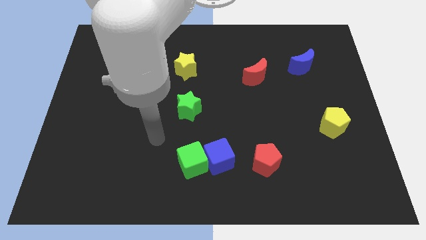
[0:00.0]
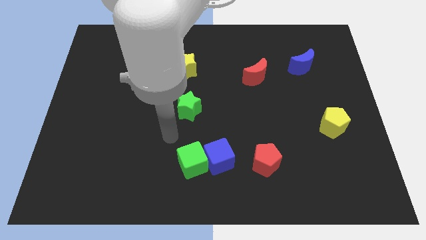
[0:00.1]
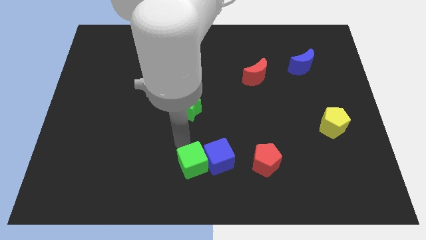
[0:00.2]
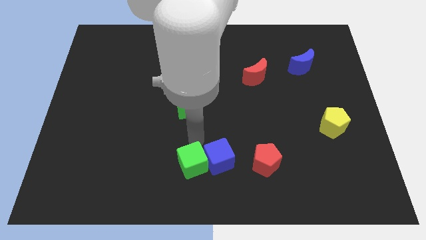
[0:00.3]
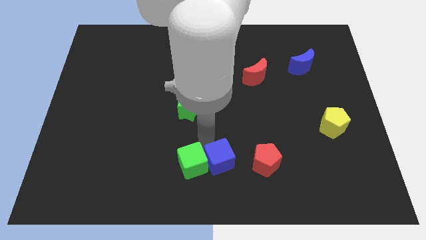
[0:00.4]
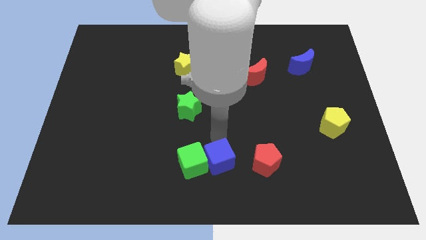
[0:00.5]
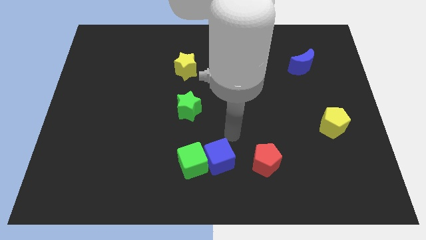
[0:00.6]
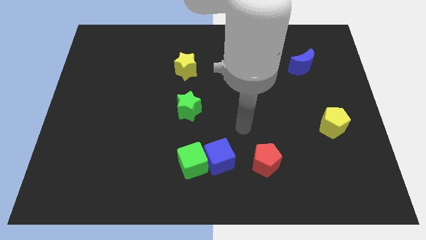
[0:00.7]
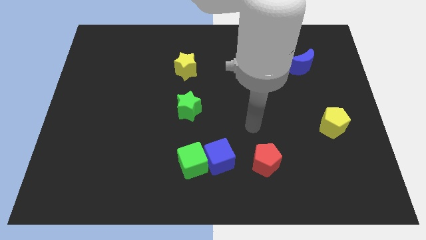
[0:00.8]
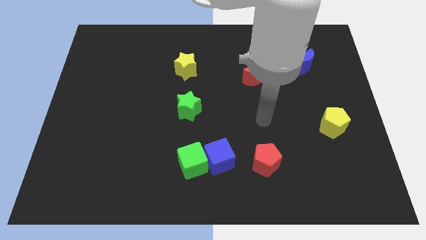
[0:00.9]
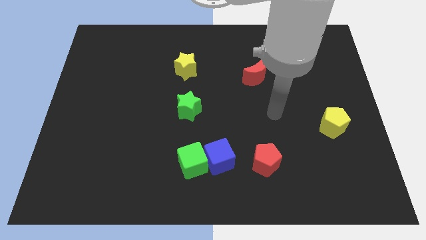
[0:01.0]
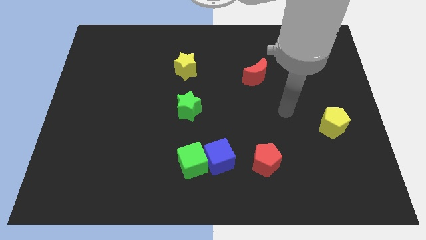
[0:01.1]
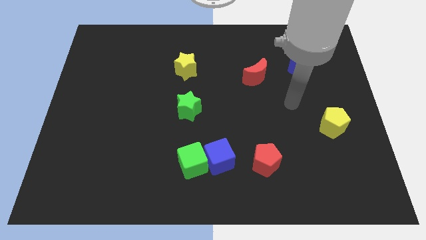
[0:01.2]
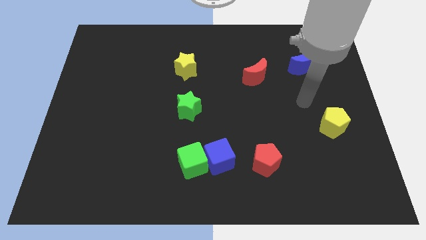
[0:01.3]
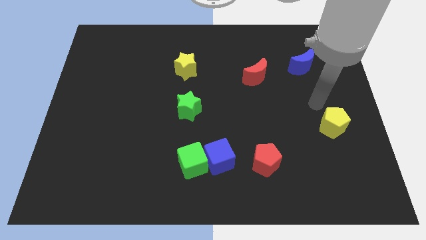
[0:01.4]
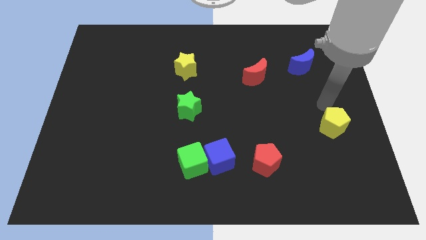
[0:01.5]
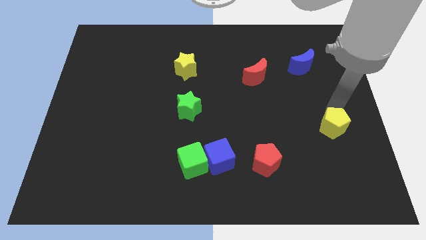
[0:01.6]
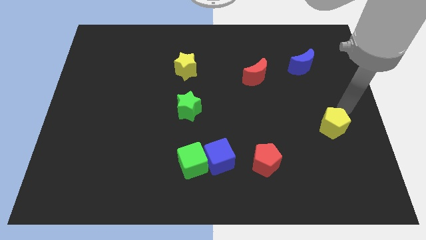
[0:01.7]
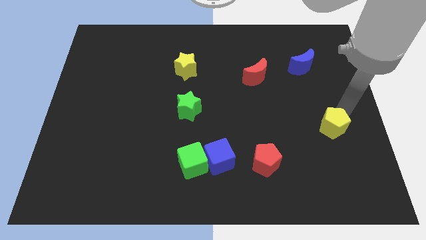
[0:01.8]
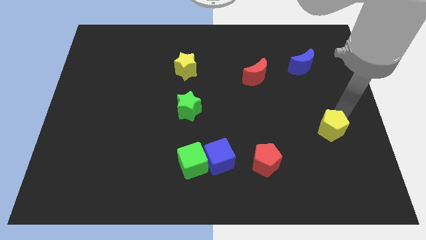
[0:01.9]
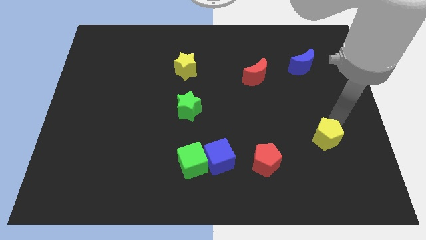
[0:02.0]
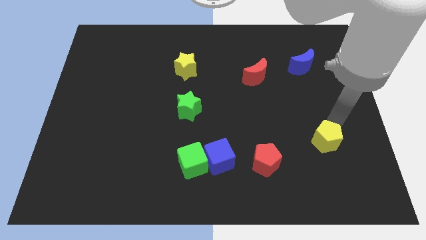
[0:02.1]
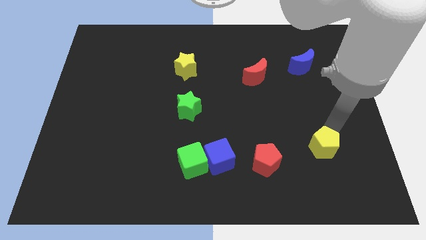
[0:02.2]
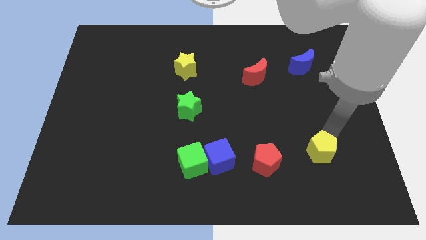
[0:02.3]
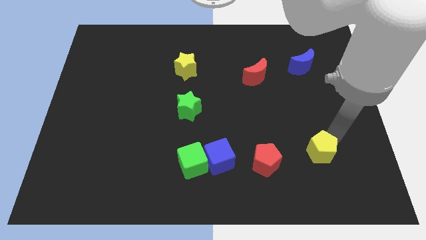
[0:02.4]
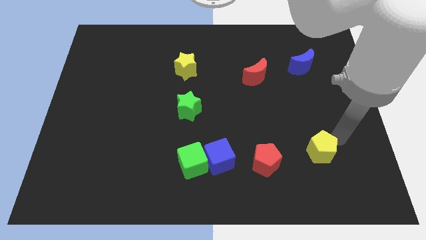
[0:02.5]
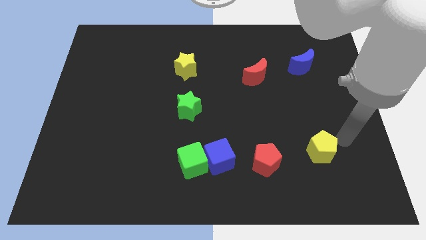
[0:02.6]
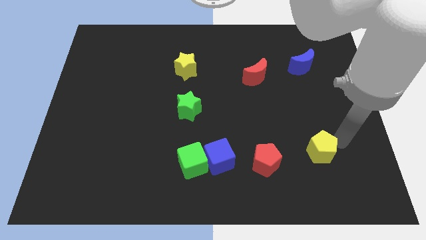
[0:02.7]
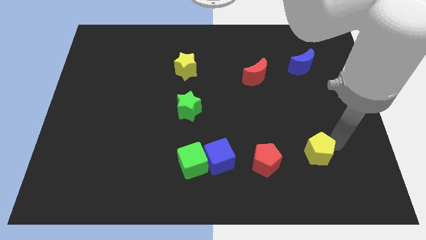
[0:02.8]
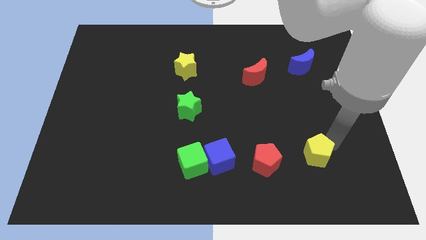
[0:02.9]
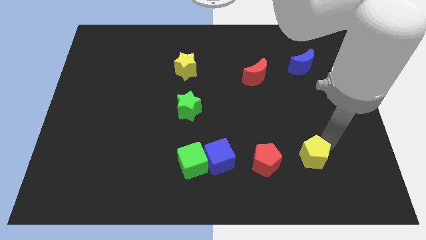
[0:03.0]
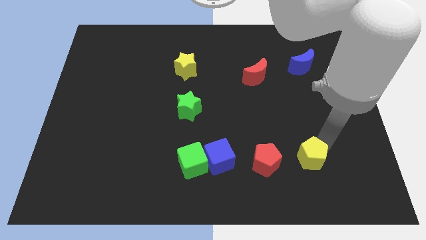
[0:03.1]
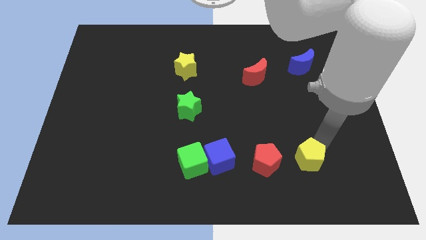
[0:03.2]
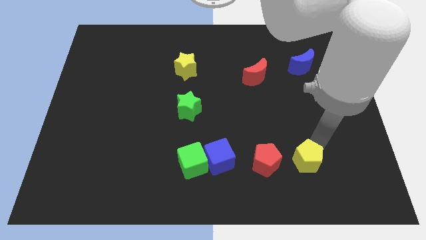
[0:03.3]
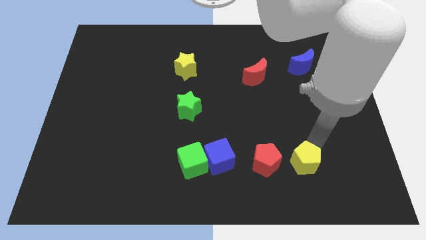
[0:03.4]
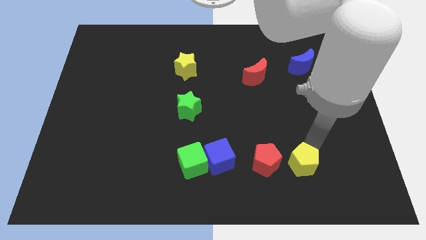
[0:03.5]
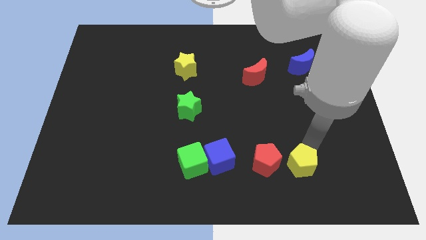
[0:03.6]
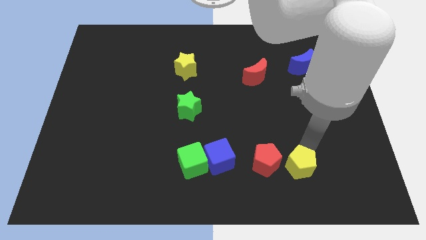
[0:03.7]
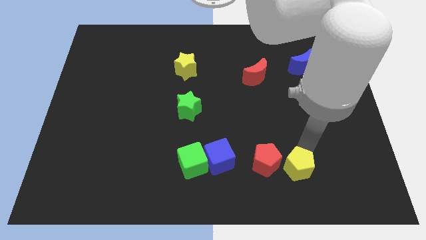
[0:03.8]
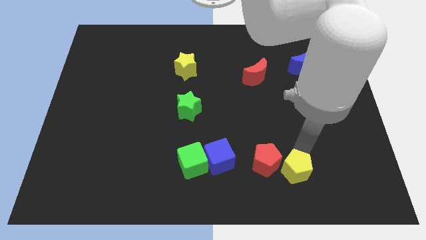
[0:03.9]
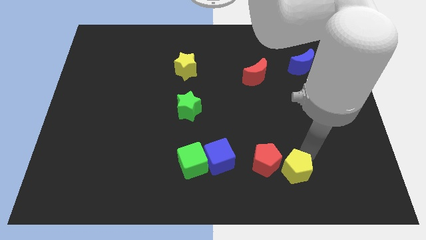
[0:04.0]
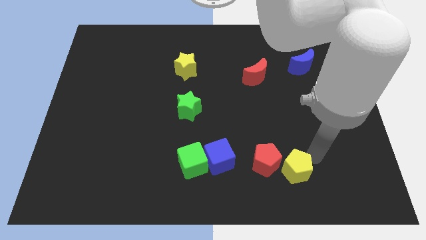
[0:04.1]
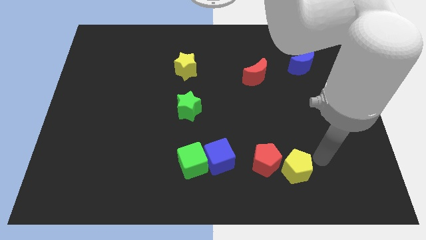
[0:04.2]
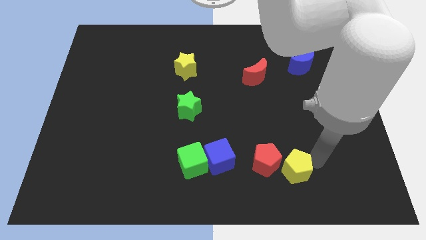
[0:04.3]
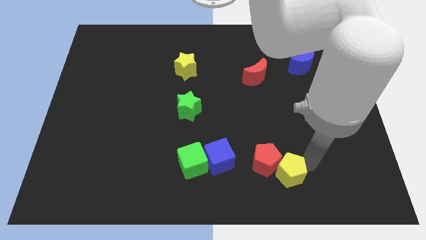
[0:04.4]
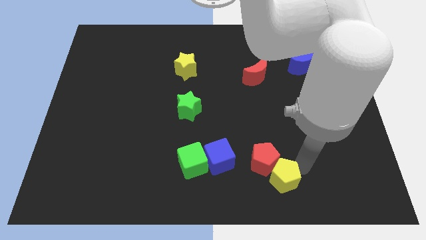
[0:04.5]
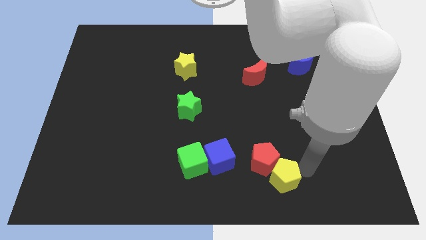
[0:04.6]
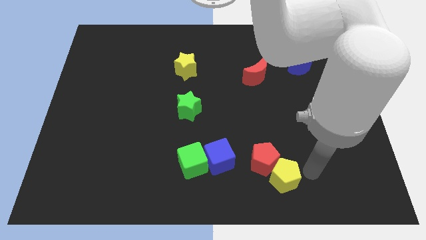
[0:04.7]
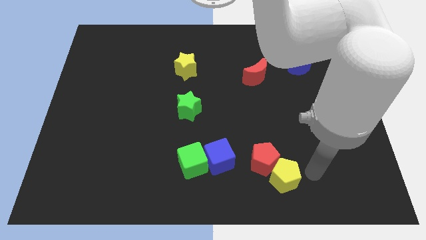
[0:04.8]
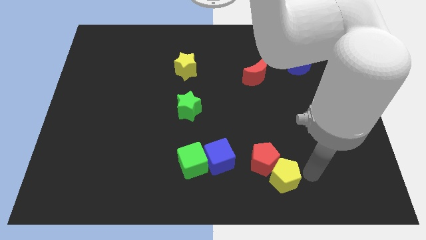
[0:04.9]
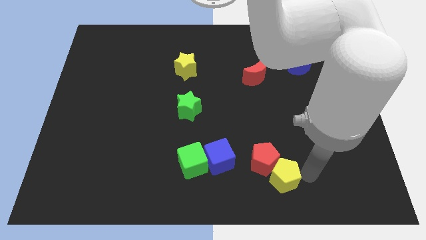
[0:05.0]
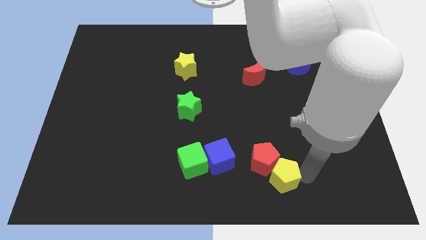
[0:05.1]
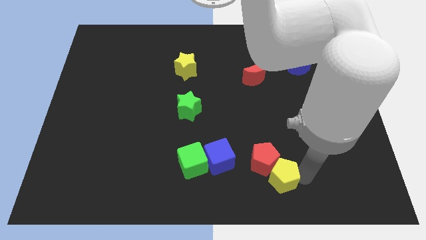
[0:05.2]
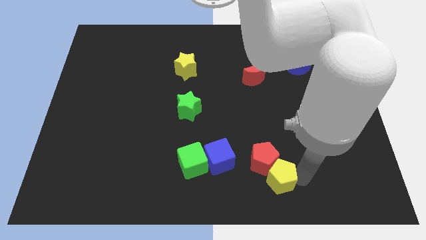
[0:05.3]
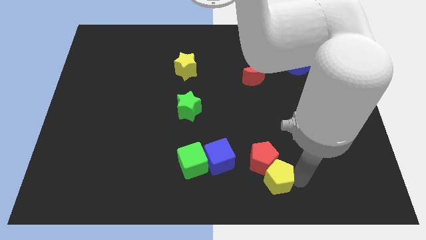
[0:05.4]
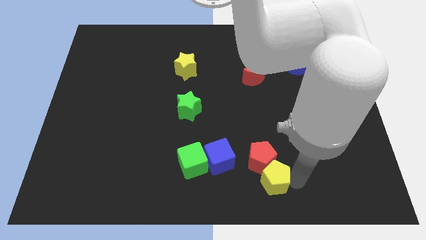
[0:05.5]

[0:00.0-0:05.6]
push the yellow pentagon to the bottom

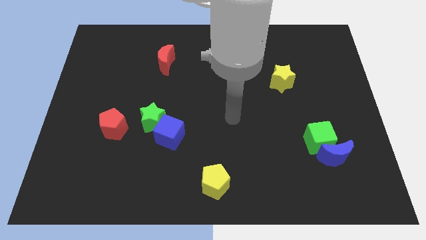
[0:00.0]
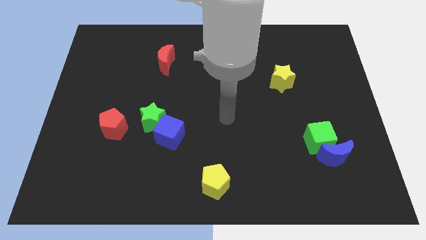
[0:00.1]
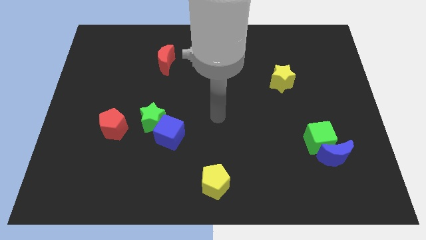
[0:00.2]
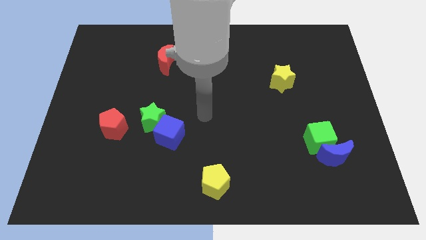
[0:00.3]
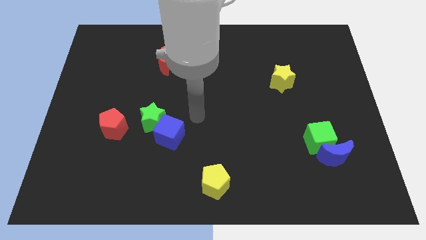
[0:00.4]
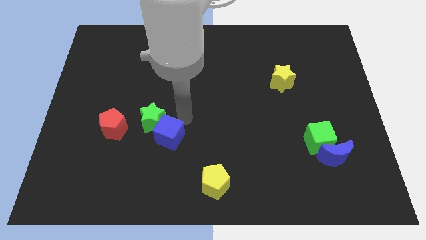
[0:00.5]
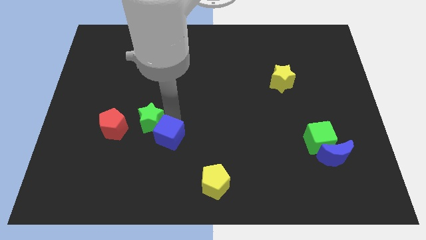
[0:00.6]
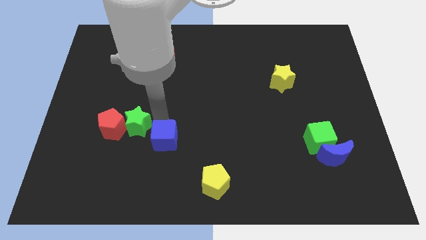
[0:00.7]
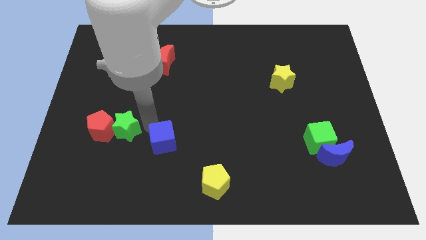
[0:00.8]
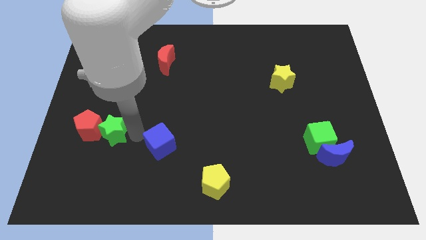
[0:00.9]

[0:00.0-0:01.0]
put the red pentagon to the left side of the board

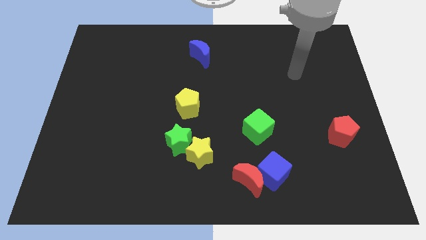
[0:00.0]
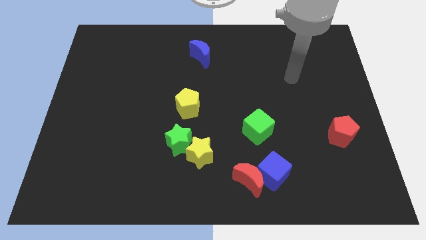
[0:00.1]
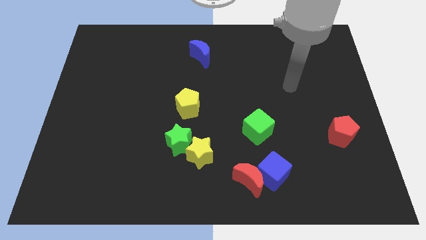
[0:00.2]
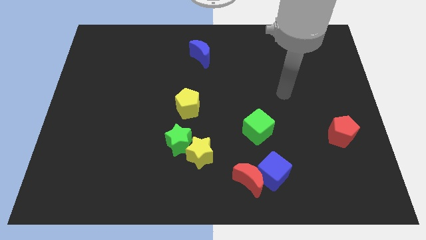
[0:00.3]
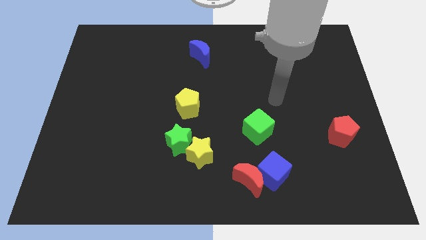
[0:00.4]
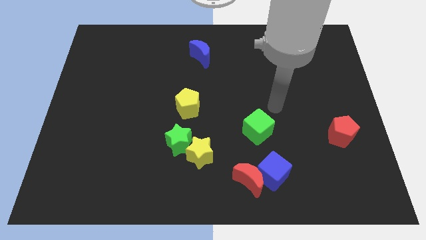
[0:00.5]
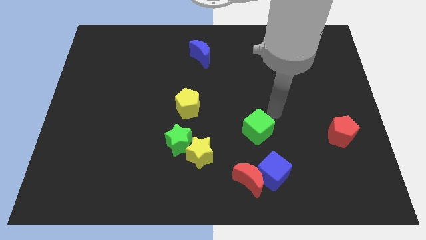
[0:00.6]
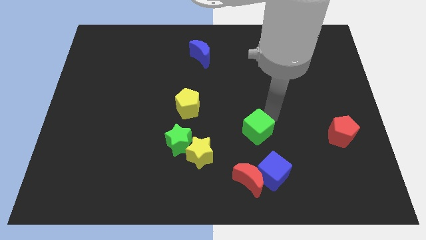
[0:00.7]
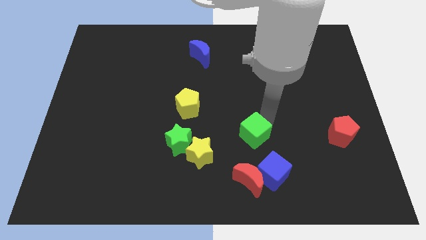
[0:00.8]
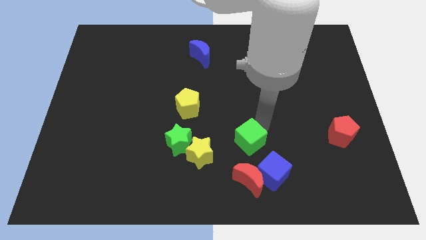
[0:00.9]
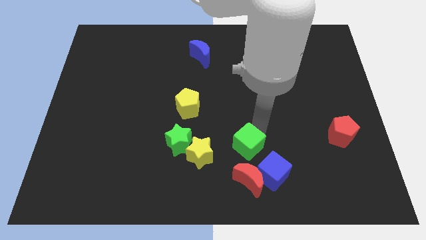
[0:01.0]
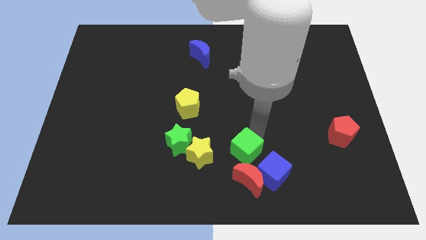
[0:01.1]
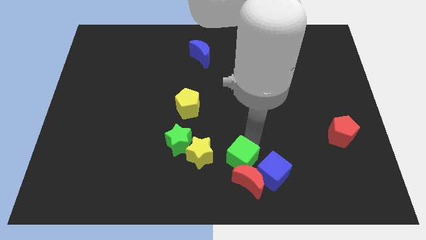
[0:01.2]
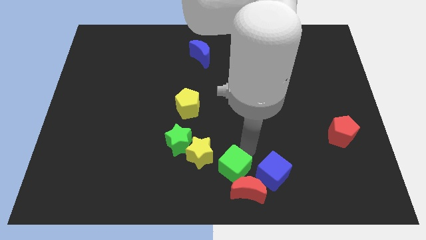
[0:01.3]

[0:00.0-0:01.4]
move the green cube to the bottom side
